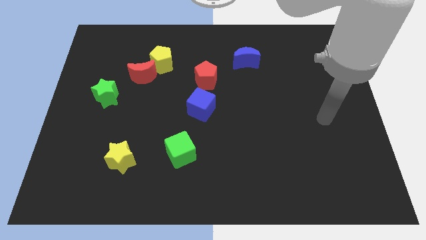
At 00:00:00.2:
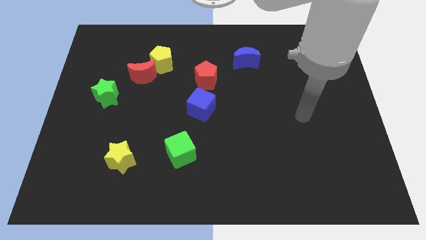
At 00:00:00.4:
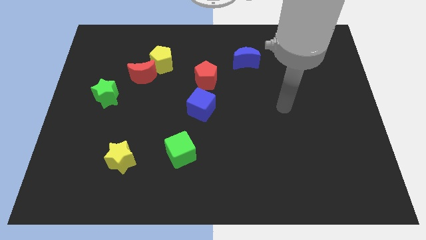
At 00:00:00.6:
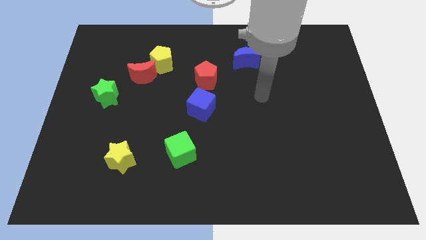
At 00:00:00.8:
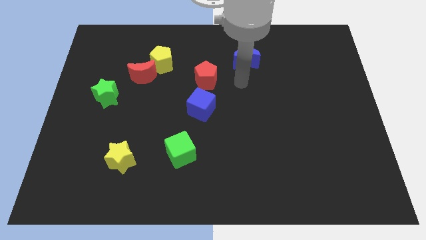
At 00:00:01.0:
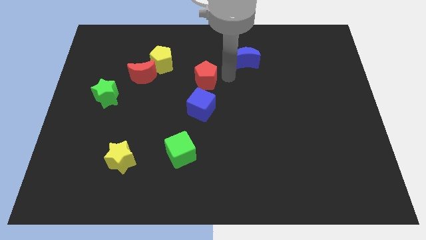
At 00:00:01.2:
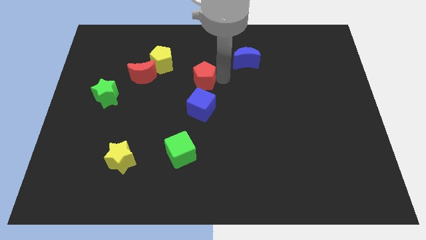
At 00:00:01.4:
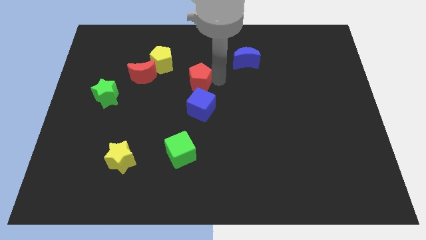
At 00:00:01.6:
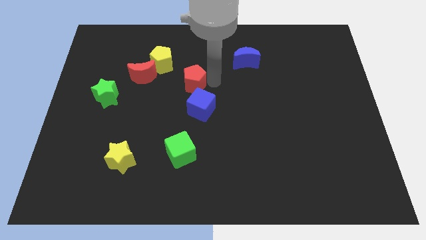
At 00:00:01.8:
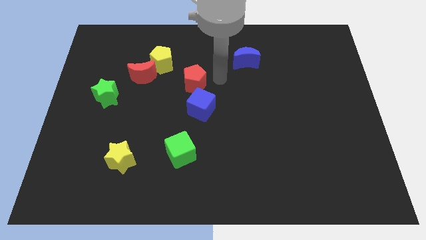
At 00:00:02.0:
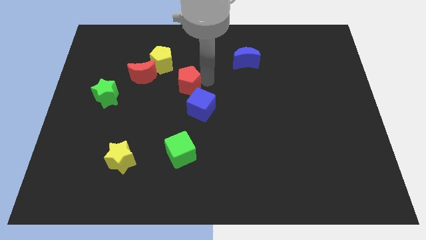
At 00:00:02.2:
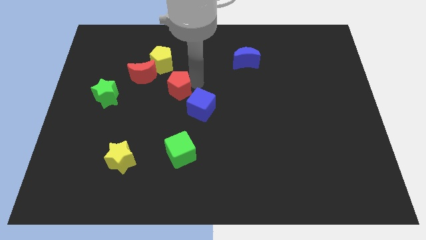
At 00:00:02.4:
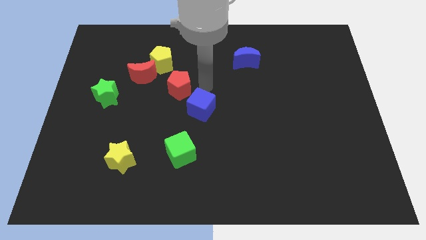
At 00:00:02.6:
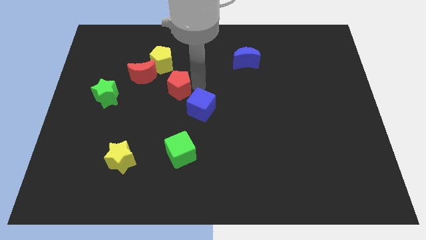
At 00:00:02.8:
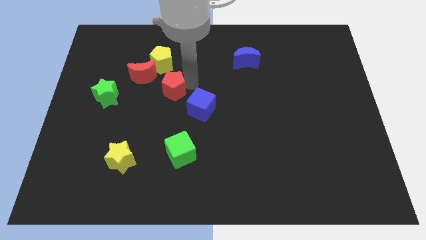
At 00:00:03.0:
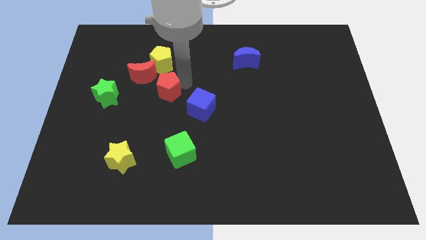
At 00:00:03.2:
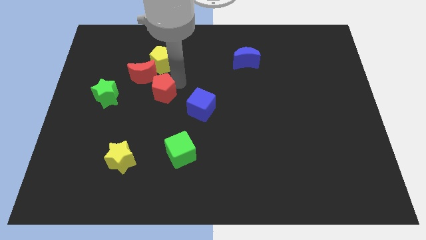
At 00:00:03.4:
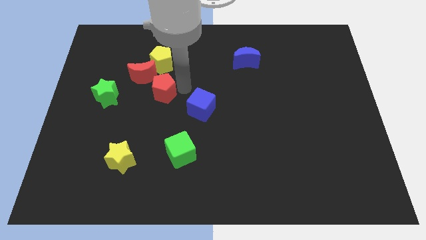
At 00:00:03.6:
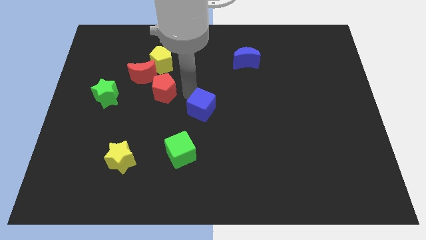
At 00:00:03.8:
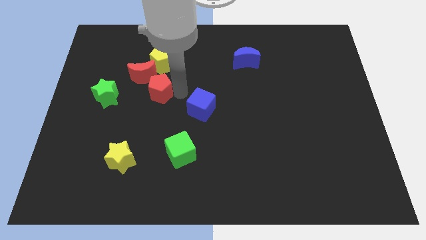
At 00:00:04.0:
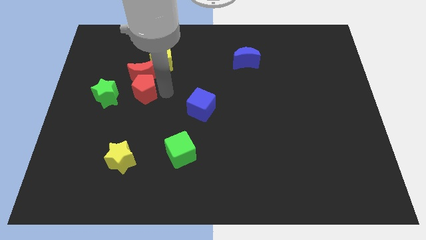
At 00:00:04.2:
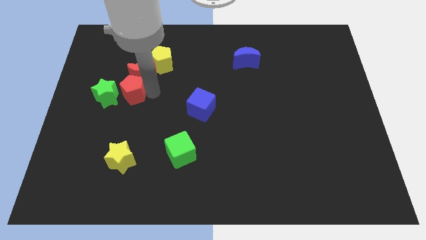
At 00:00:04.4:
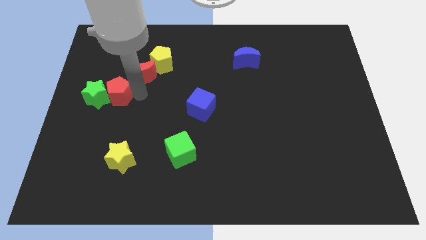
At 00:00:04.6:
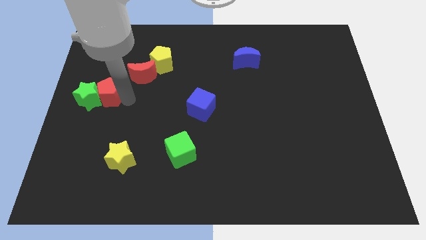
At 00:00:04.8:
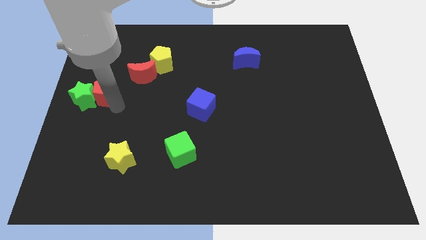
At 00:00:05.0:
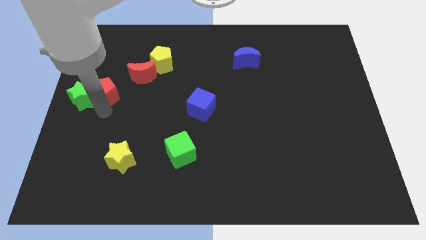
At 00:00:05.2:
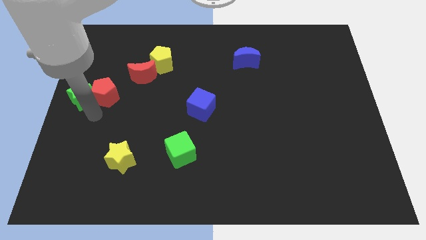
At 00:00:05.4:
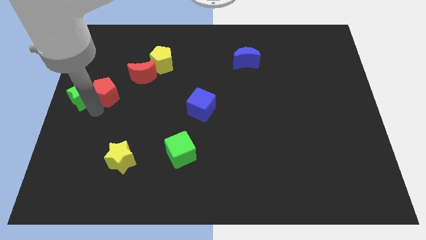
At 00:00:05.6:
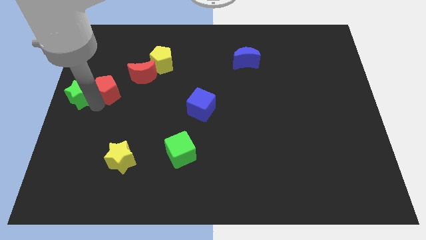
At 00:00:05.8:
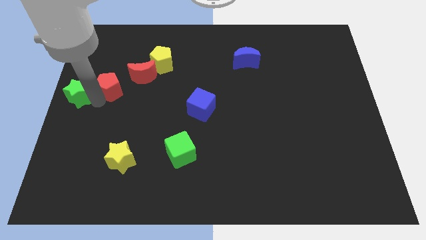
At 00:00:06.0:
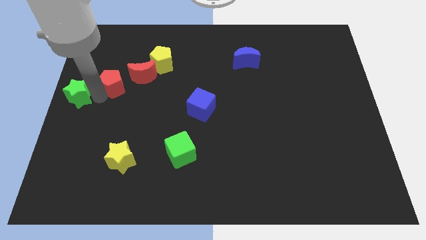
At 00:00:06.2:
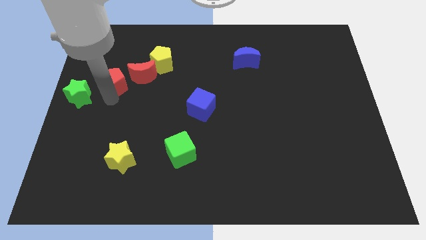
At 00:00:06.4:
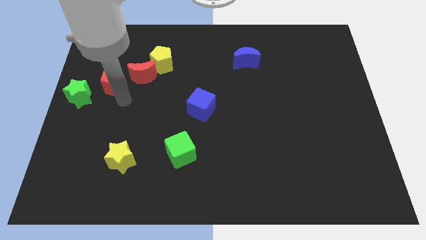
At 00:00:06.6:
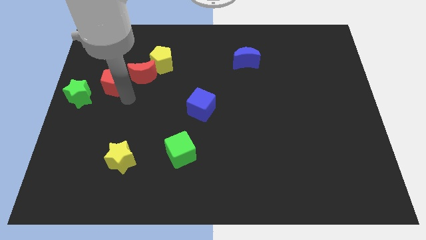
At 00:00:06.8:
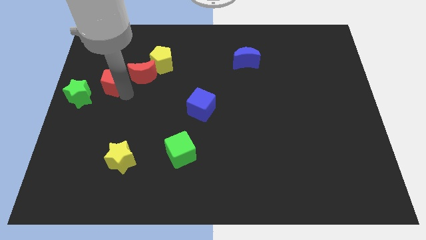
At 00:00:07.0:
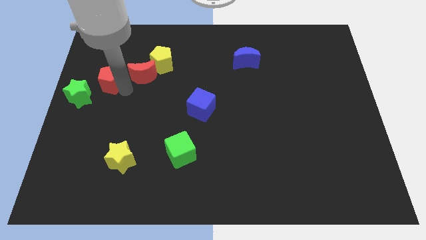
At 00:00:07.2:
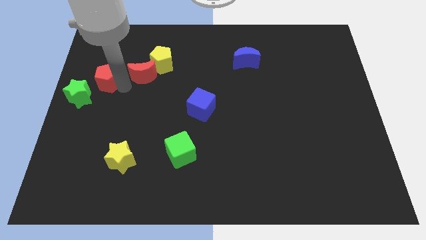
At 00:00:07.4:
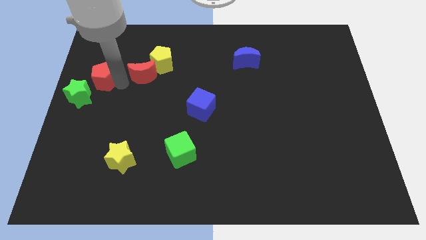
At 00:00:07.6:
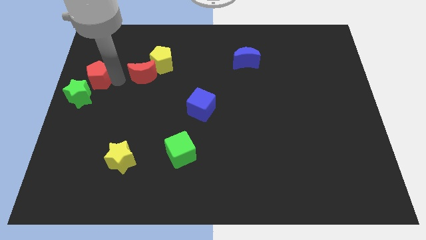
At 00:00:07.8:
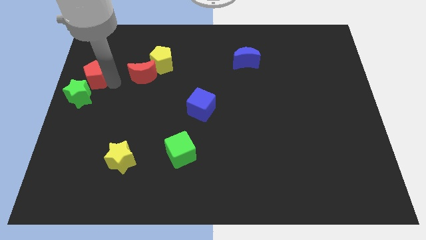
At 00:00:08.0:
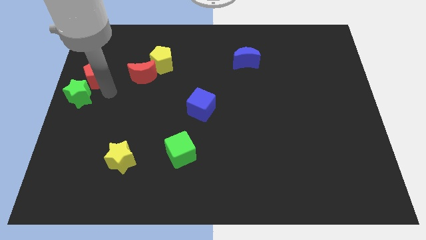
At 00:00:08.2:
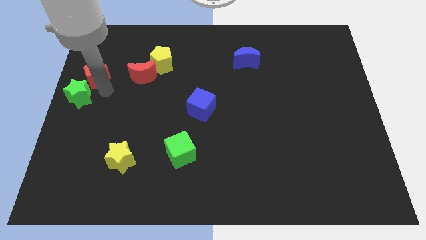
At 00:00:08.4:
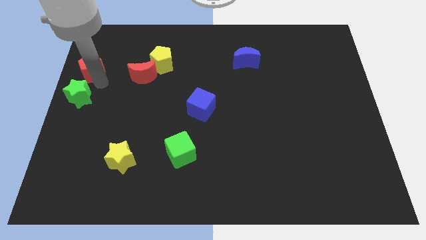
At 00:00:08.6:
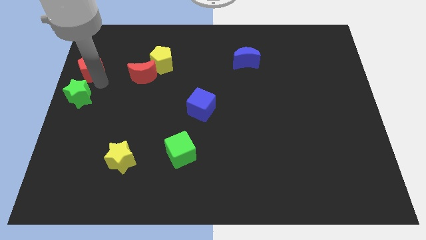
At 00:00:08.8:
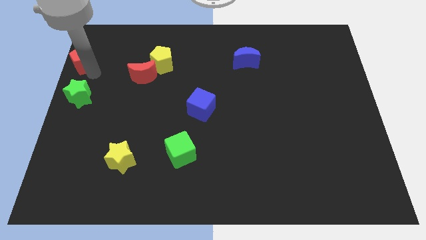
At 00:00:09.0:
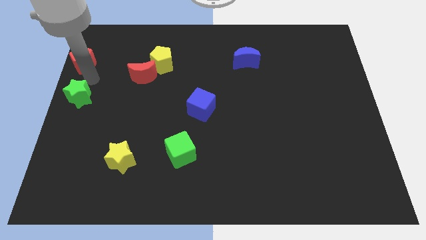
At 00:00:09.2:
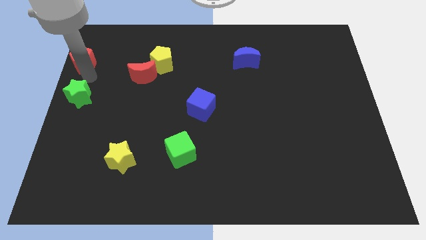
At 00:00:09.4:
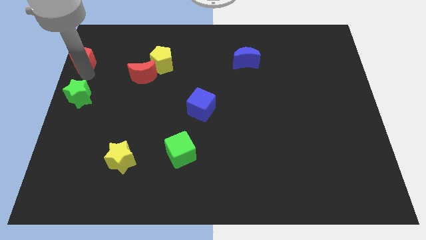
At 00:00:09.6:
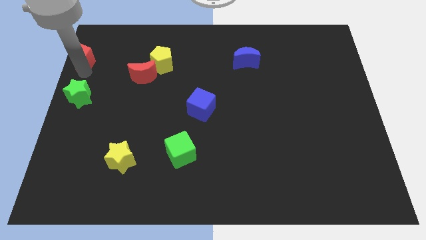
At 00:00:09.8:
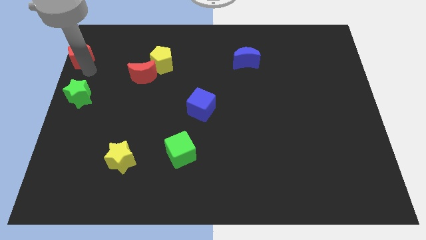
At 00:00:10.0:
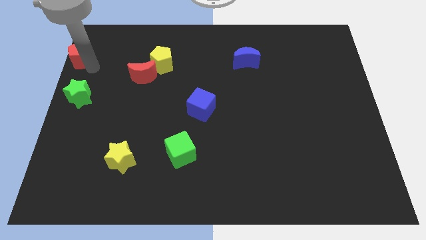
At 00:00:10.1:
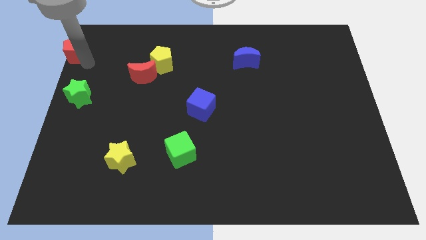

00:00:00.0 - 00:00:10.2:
push the red pentagon to the top left

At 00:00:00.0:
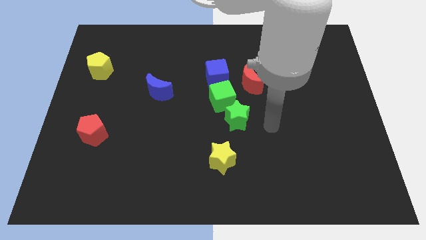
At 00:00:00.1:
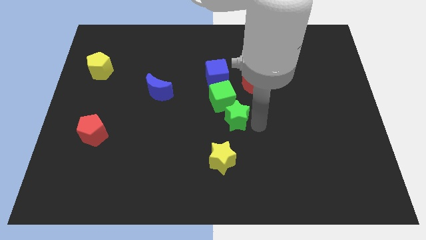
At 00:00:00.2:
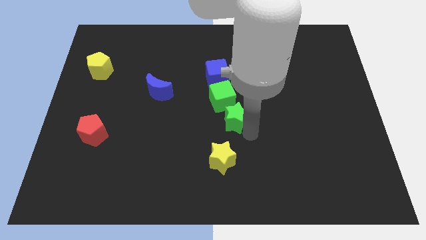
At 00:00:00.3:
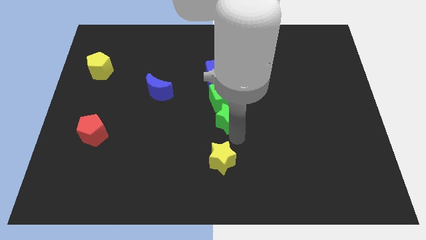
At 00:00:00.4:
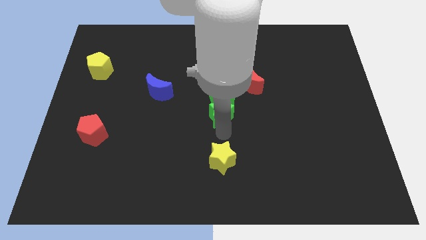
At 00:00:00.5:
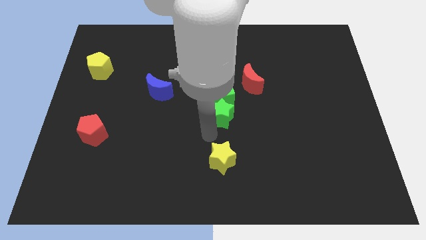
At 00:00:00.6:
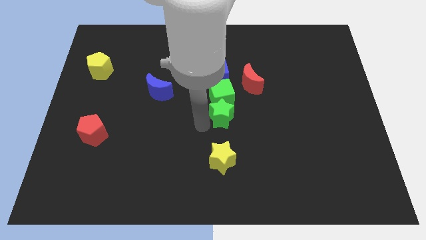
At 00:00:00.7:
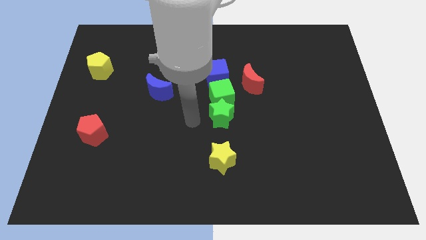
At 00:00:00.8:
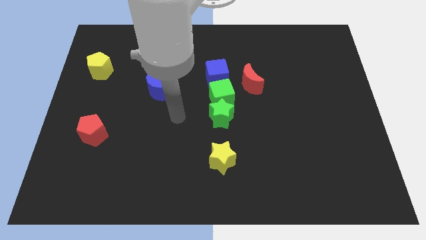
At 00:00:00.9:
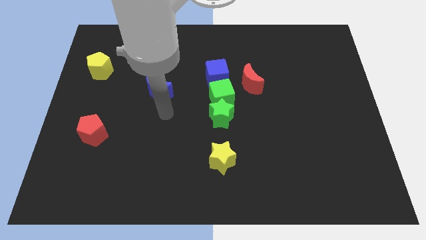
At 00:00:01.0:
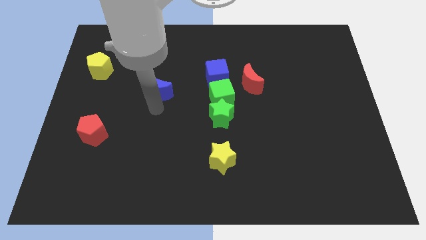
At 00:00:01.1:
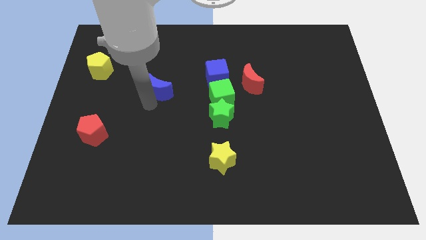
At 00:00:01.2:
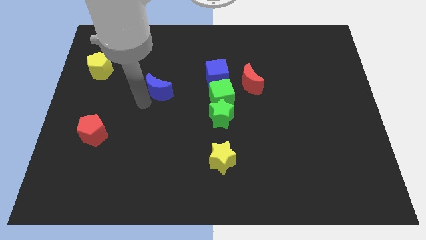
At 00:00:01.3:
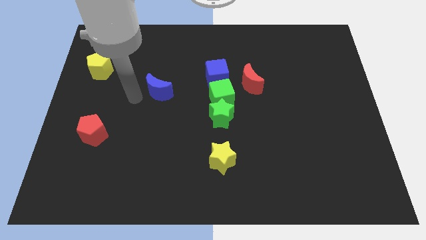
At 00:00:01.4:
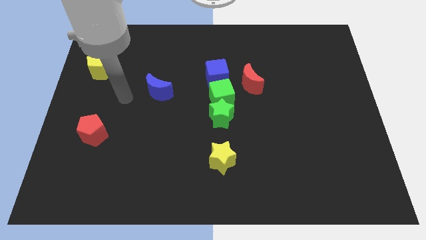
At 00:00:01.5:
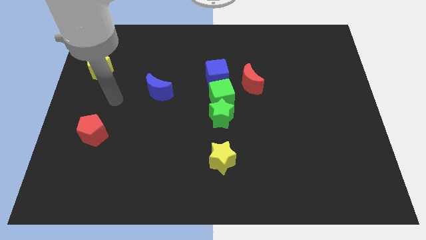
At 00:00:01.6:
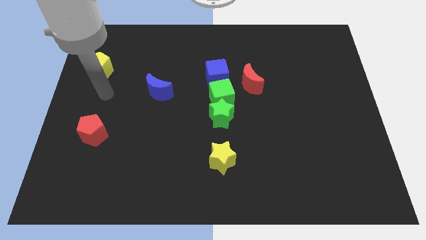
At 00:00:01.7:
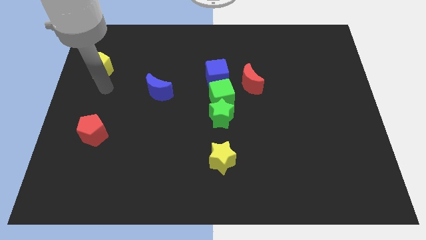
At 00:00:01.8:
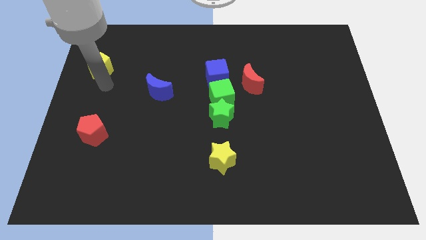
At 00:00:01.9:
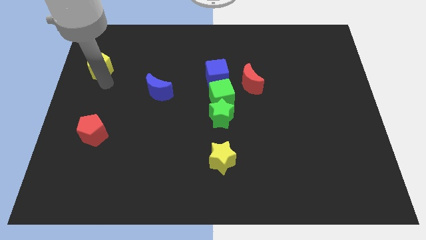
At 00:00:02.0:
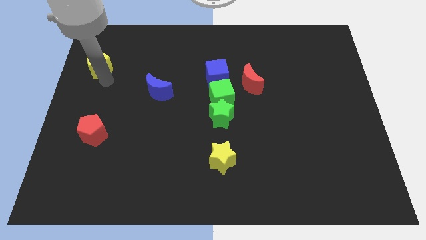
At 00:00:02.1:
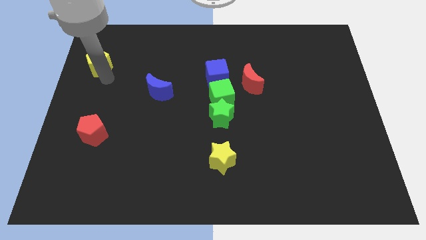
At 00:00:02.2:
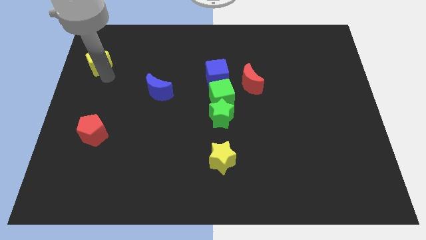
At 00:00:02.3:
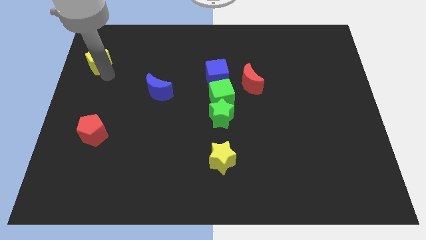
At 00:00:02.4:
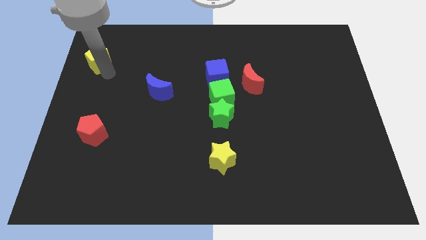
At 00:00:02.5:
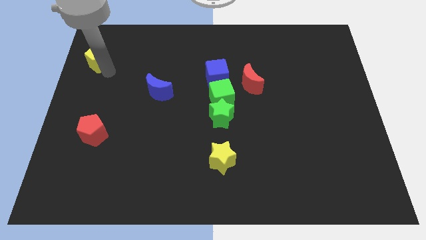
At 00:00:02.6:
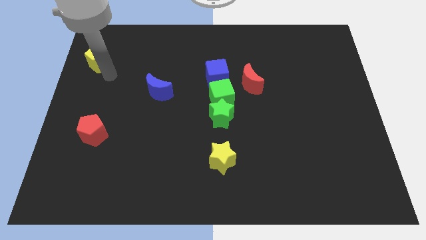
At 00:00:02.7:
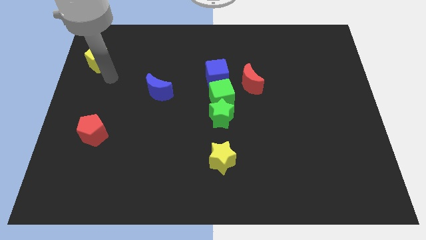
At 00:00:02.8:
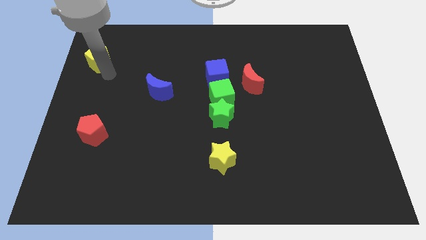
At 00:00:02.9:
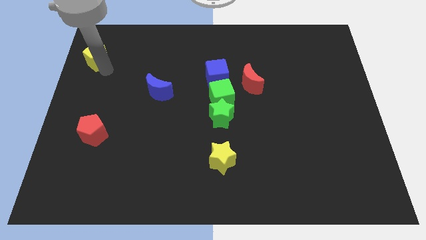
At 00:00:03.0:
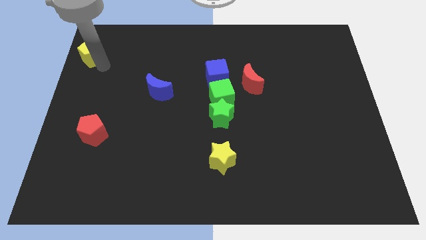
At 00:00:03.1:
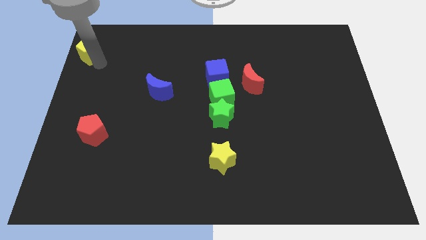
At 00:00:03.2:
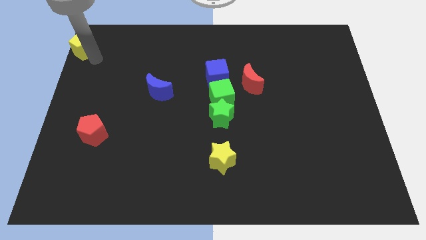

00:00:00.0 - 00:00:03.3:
push the yellow pentagon to the top left of the board
